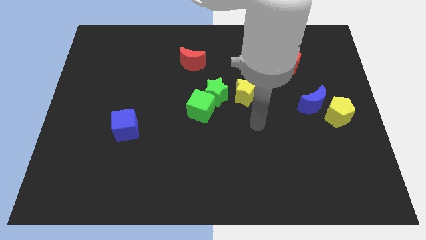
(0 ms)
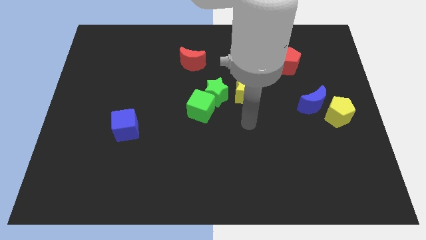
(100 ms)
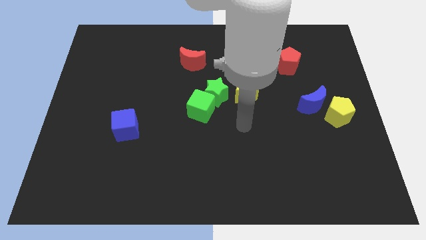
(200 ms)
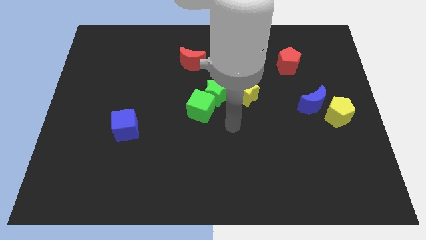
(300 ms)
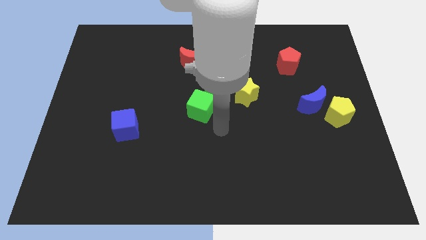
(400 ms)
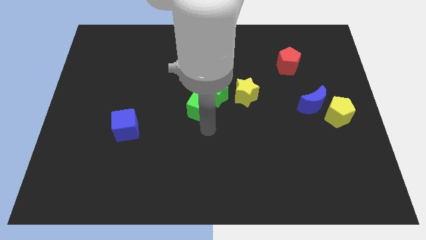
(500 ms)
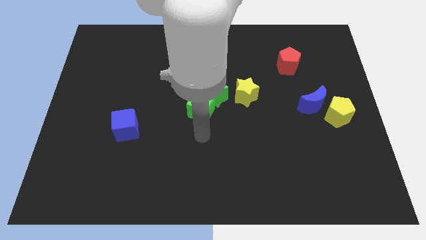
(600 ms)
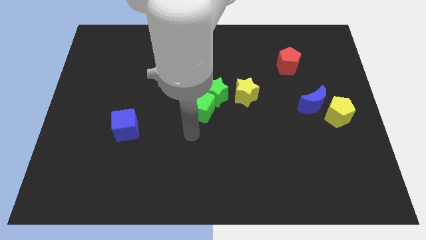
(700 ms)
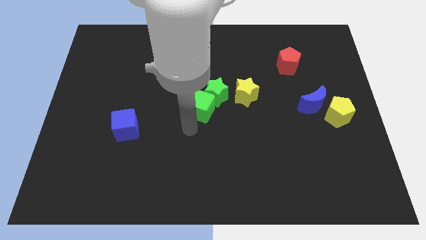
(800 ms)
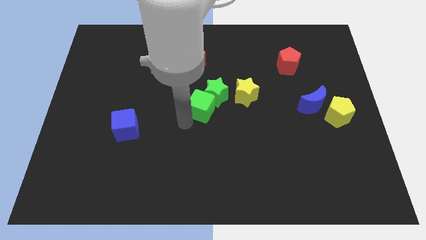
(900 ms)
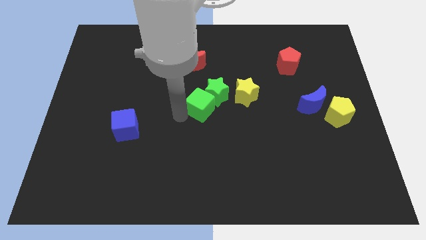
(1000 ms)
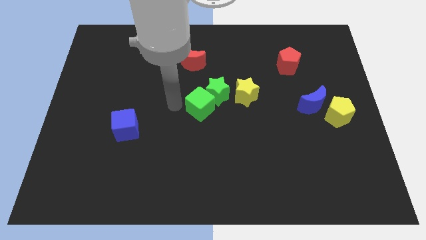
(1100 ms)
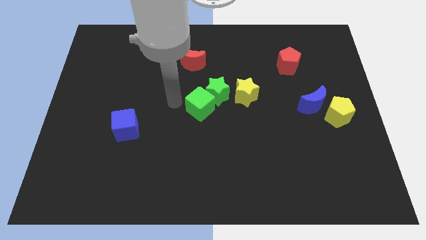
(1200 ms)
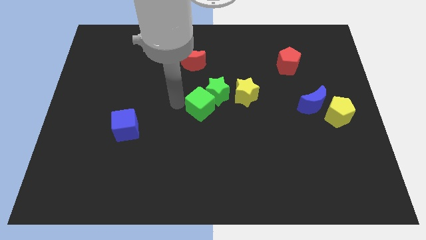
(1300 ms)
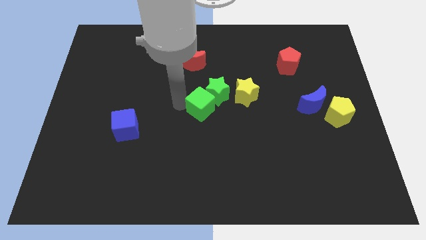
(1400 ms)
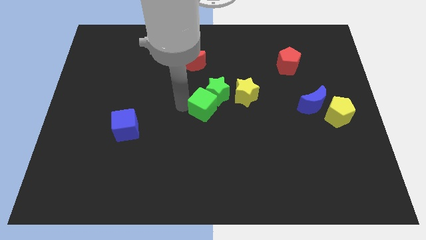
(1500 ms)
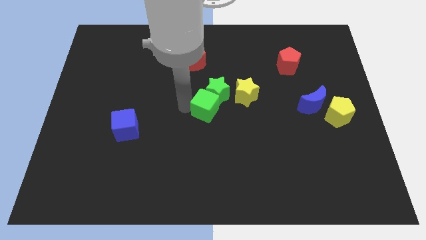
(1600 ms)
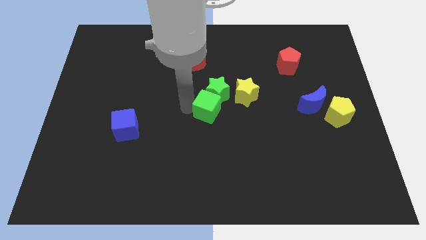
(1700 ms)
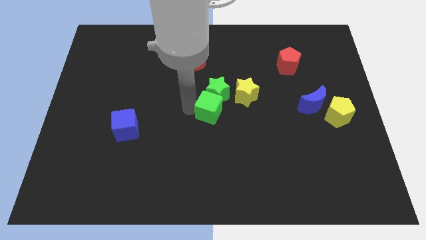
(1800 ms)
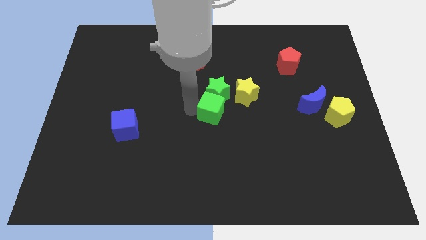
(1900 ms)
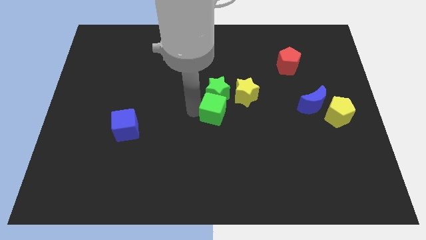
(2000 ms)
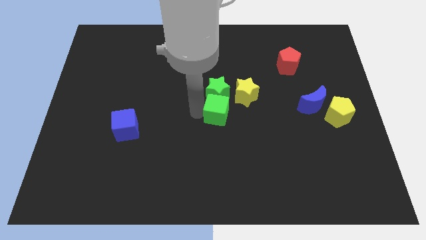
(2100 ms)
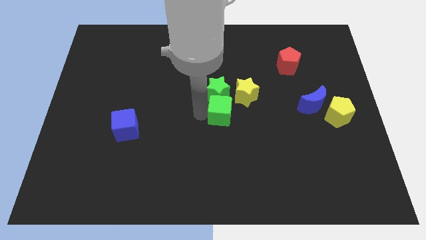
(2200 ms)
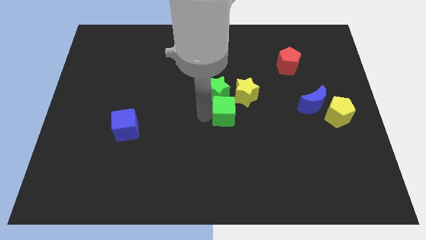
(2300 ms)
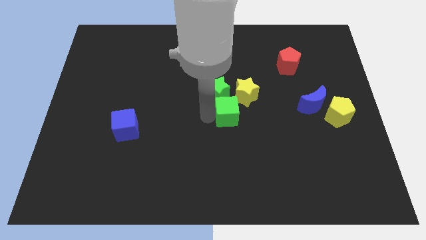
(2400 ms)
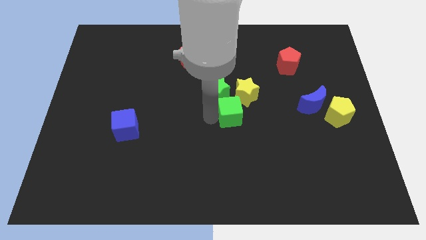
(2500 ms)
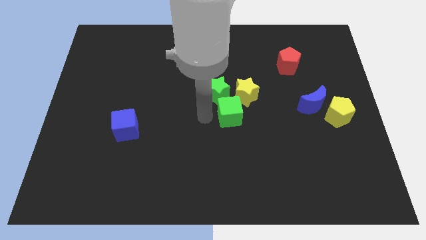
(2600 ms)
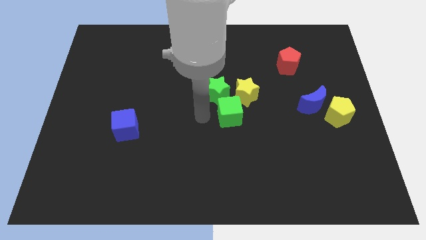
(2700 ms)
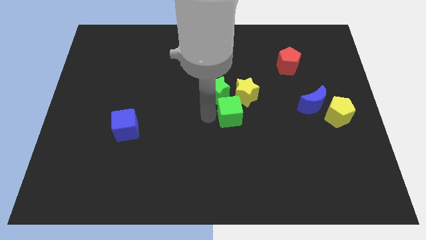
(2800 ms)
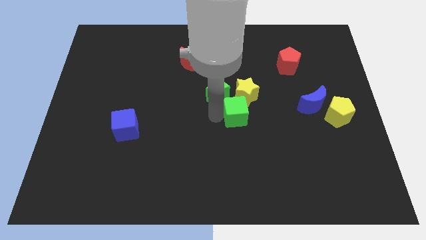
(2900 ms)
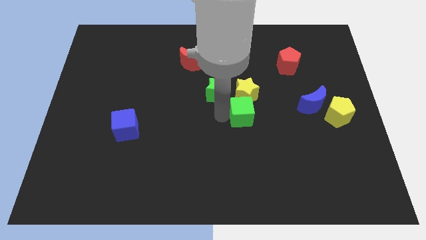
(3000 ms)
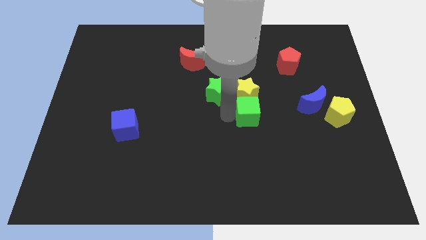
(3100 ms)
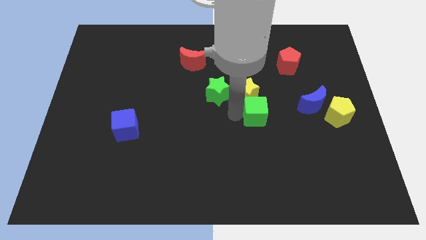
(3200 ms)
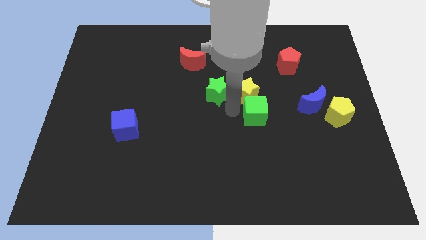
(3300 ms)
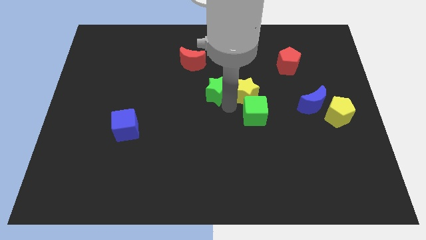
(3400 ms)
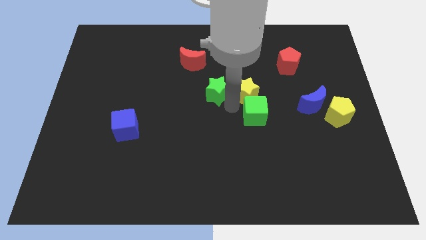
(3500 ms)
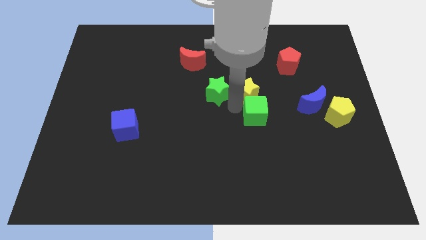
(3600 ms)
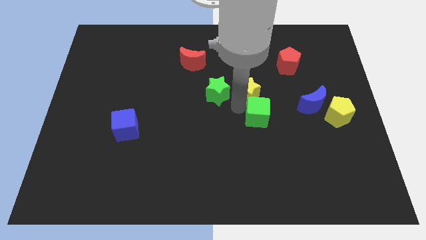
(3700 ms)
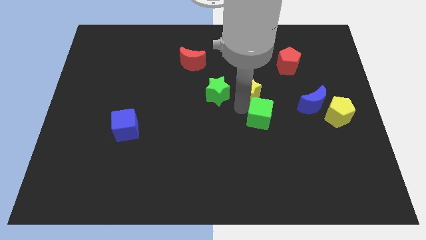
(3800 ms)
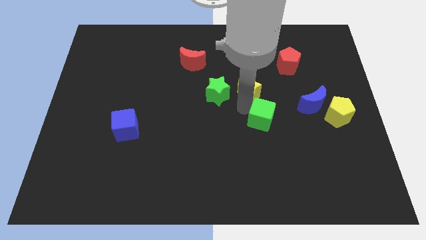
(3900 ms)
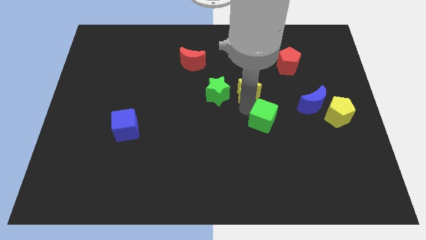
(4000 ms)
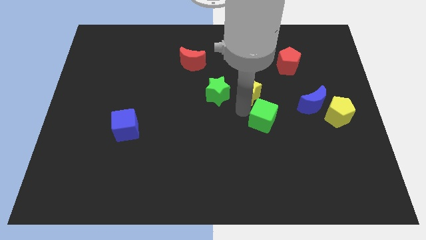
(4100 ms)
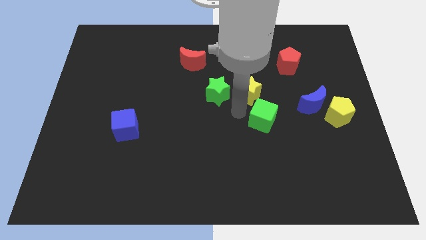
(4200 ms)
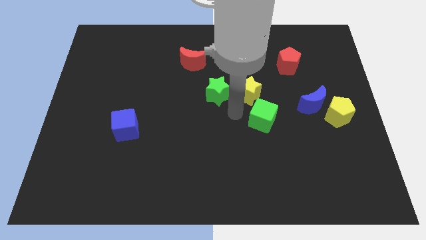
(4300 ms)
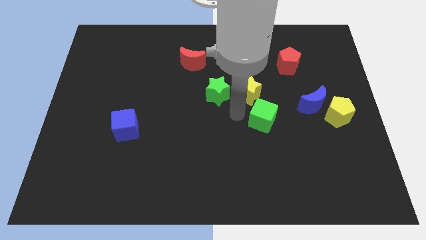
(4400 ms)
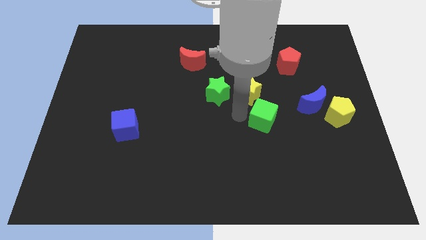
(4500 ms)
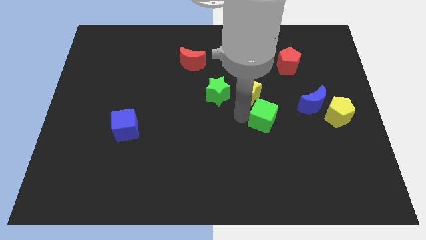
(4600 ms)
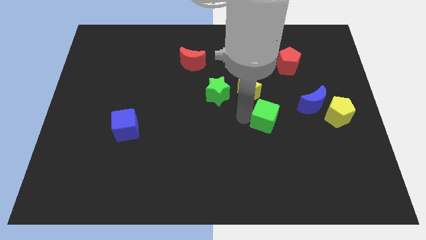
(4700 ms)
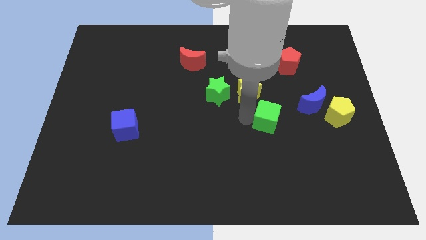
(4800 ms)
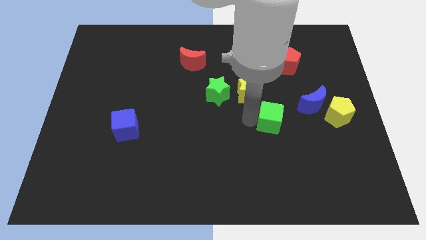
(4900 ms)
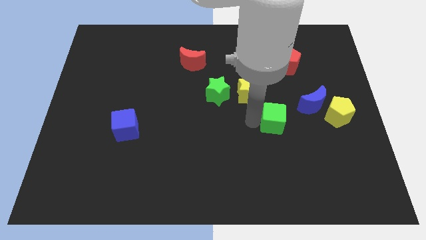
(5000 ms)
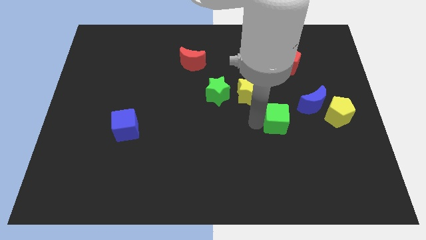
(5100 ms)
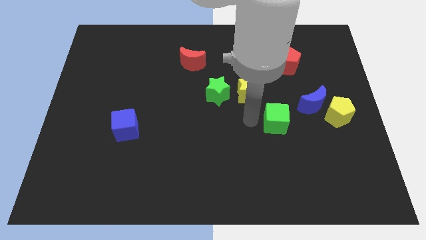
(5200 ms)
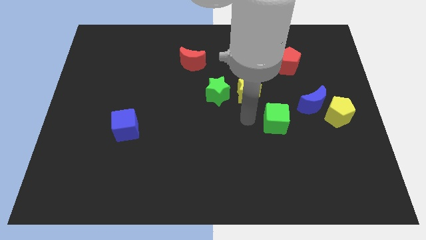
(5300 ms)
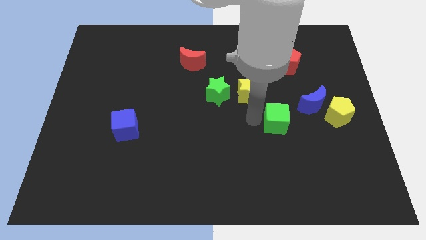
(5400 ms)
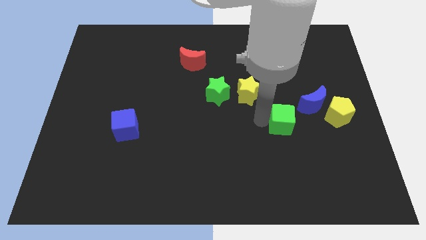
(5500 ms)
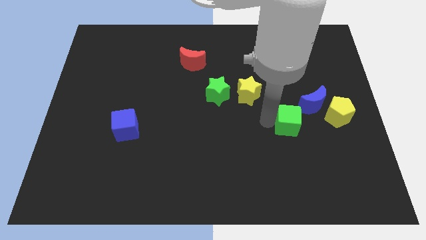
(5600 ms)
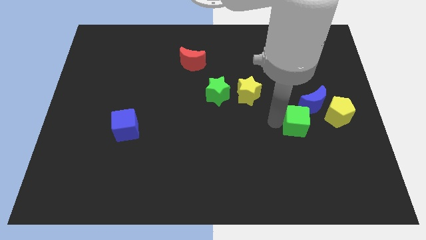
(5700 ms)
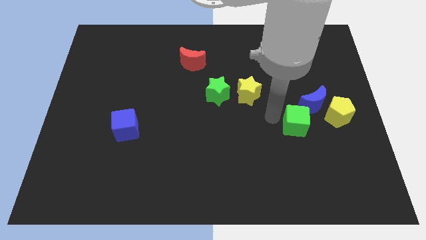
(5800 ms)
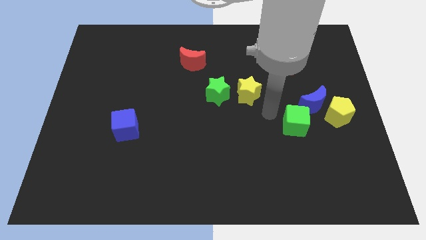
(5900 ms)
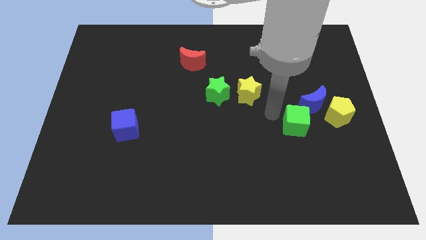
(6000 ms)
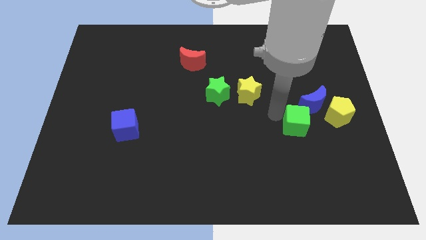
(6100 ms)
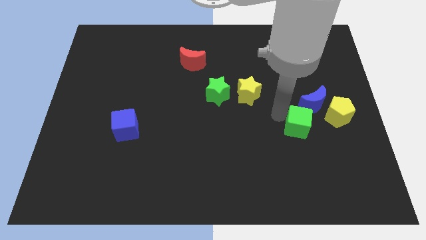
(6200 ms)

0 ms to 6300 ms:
move the green cube diagonally down and to the left of the yellow pentagon

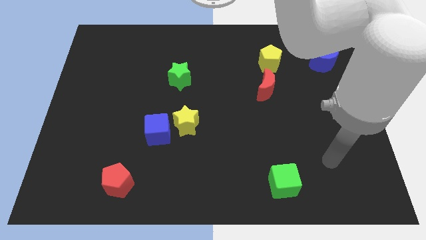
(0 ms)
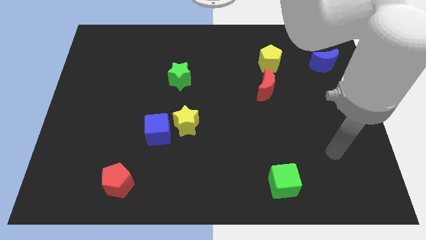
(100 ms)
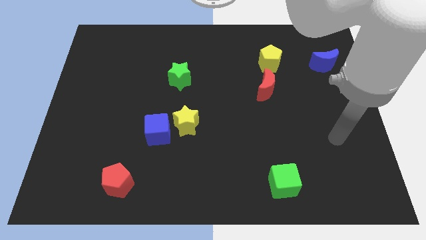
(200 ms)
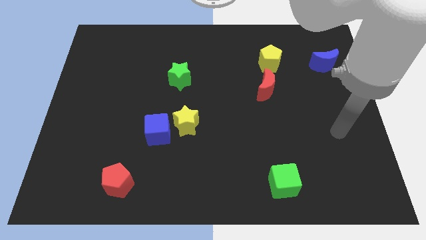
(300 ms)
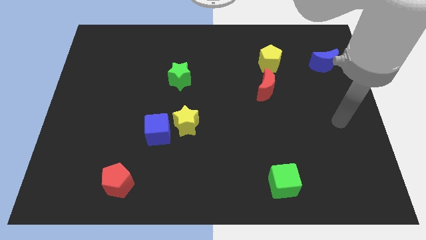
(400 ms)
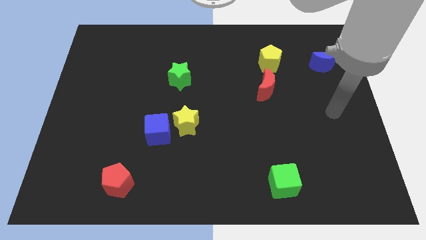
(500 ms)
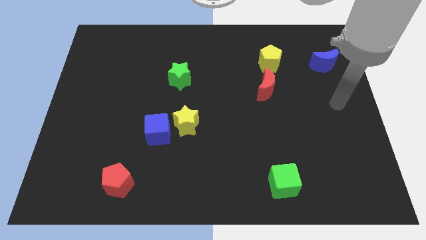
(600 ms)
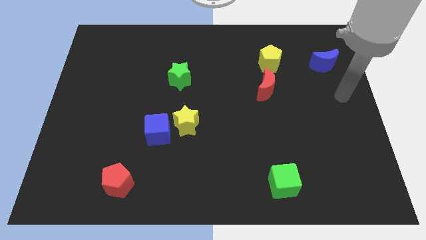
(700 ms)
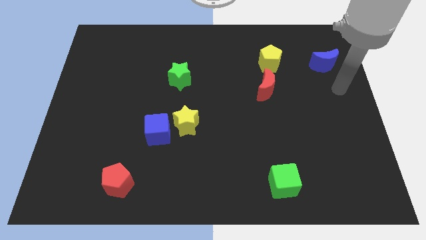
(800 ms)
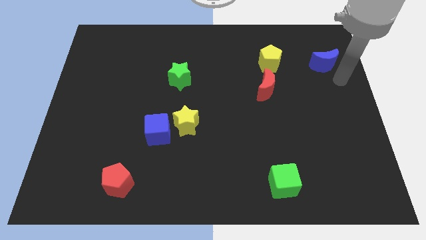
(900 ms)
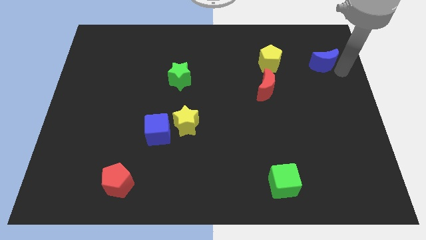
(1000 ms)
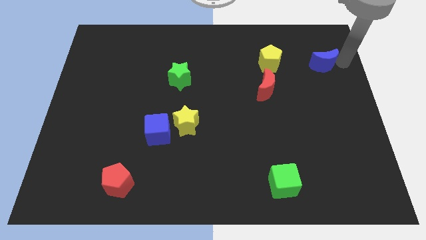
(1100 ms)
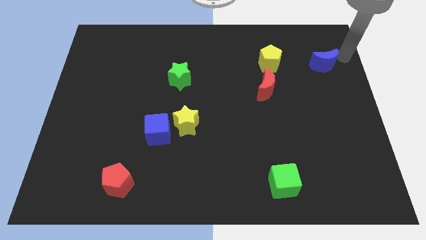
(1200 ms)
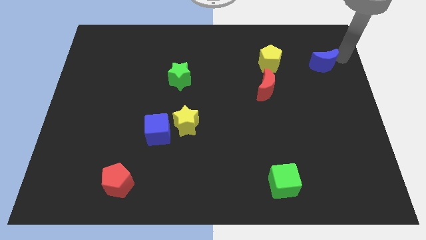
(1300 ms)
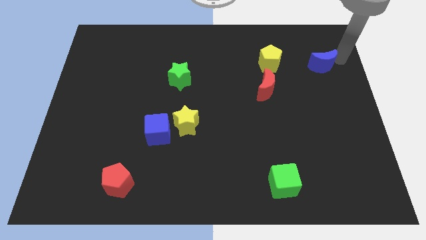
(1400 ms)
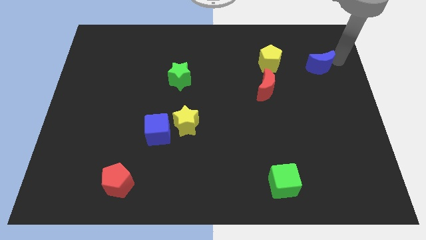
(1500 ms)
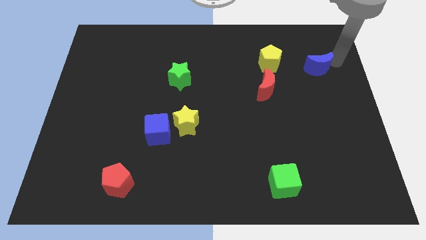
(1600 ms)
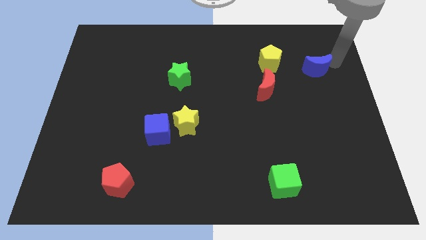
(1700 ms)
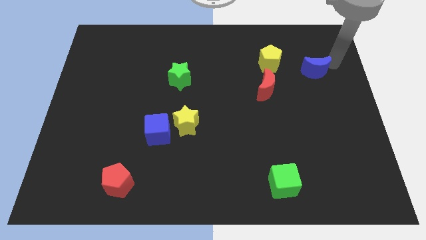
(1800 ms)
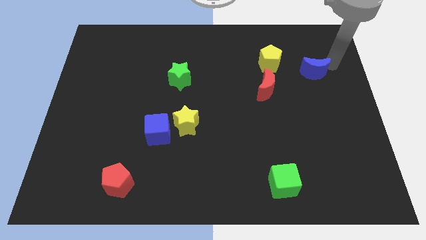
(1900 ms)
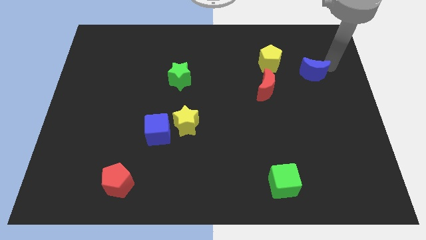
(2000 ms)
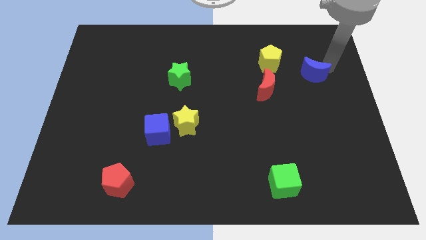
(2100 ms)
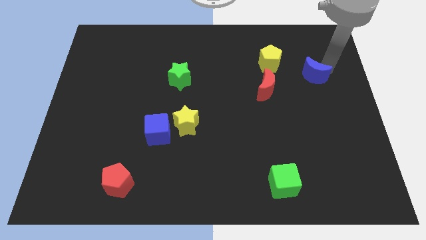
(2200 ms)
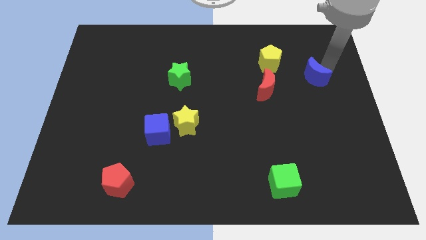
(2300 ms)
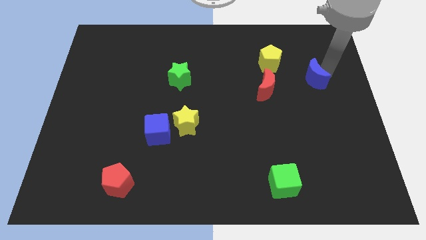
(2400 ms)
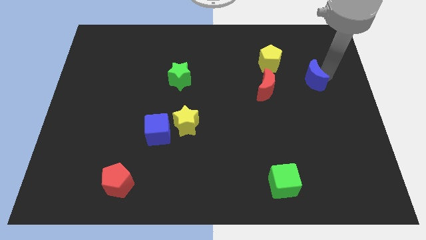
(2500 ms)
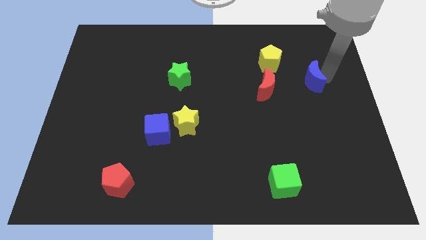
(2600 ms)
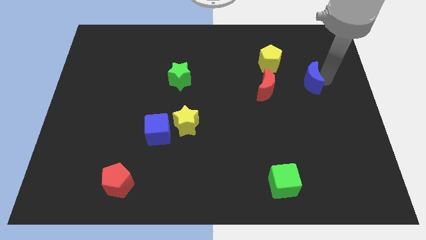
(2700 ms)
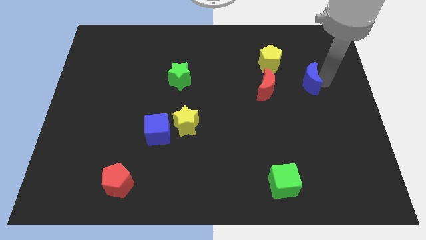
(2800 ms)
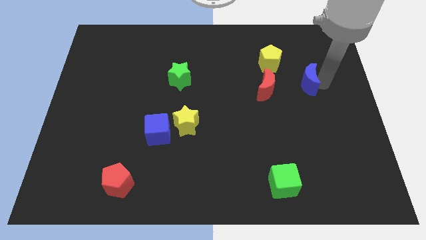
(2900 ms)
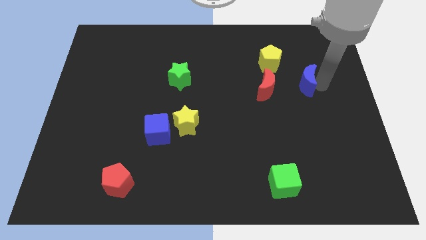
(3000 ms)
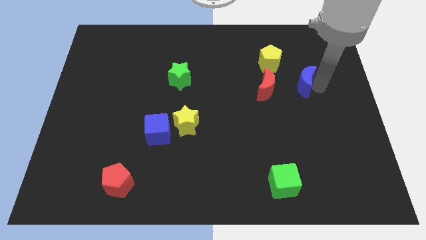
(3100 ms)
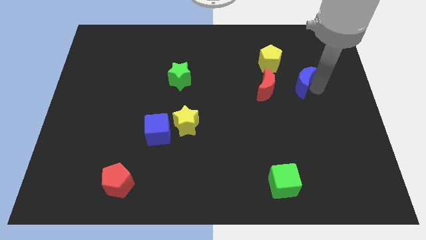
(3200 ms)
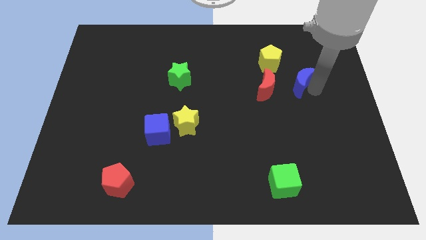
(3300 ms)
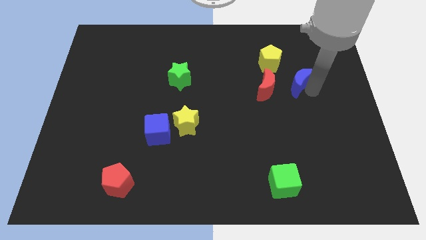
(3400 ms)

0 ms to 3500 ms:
move the blue moon to the top right side of the red moon
